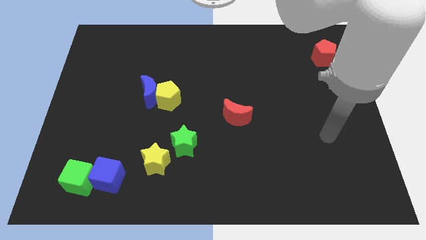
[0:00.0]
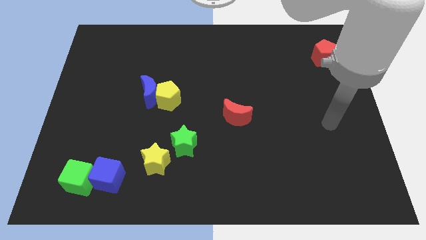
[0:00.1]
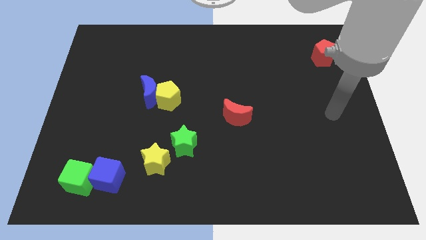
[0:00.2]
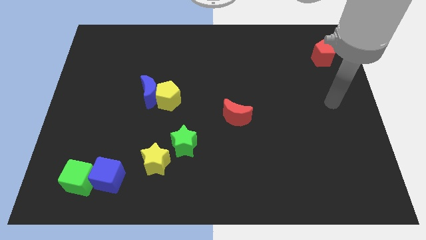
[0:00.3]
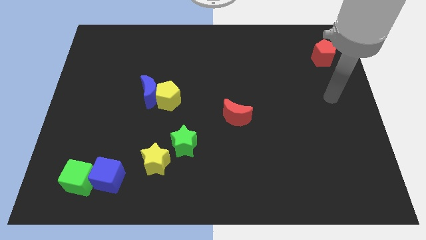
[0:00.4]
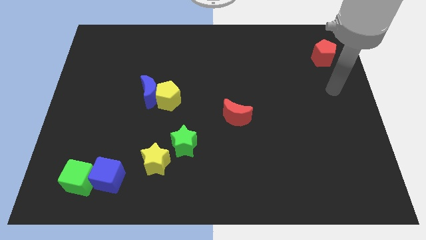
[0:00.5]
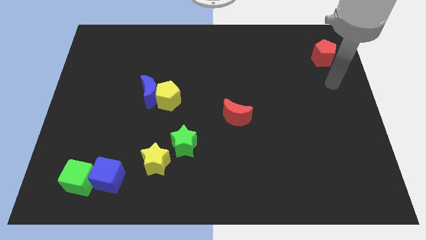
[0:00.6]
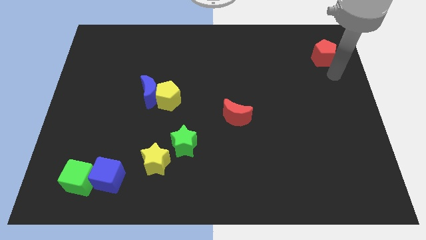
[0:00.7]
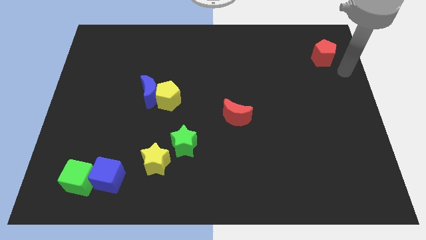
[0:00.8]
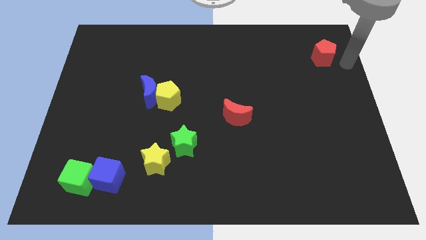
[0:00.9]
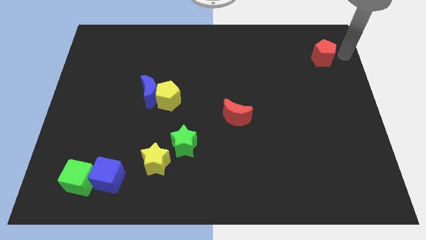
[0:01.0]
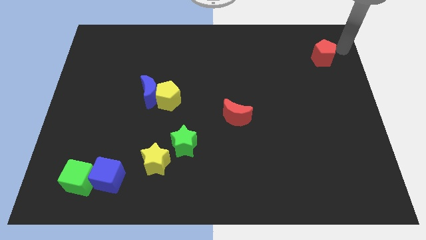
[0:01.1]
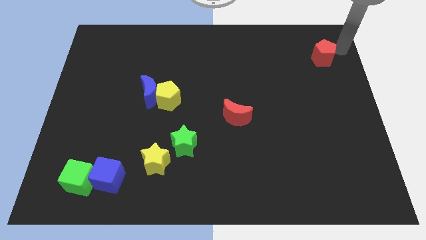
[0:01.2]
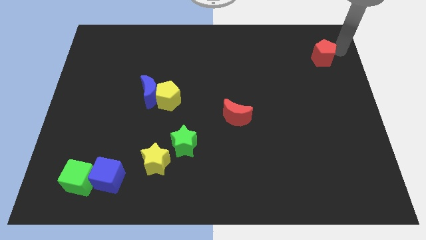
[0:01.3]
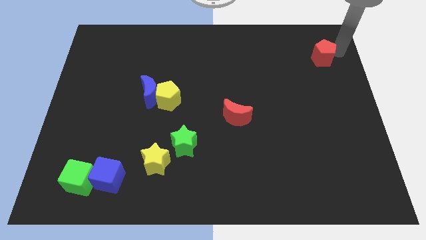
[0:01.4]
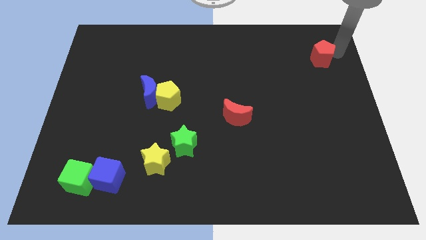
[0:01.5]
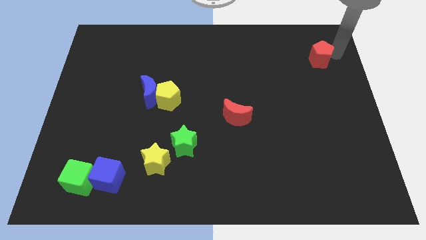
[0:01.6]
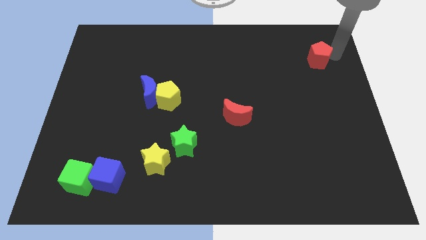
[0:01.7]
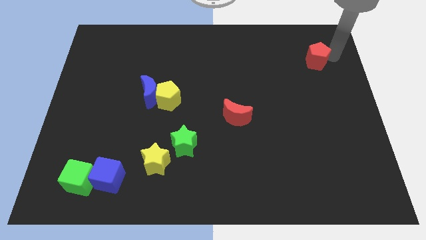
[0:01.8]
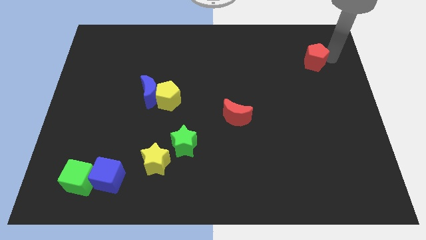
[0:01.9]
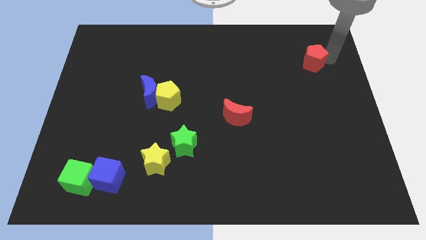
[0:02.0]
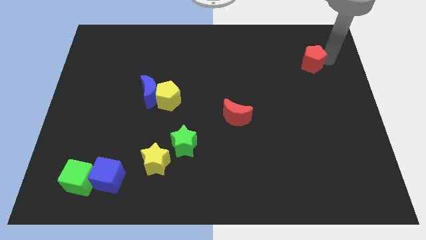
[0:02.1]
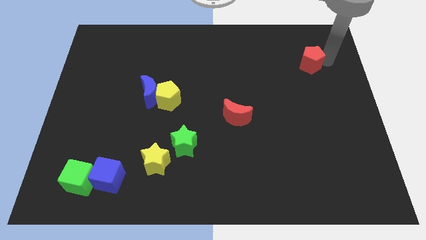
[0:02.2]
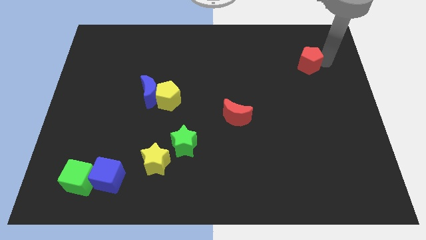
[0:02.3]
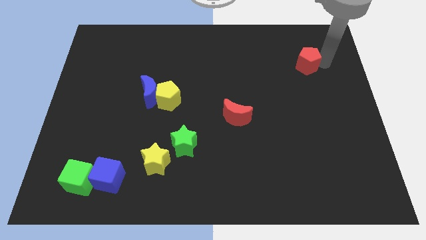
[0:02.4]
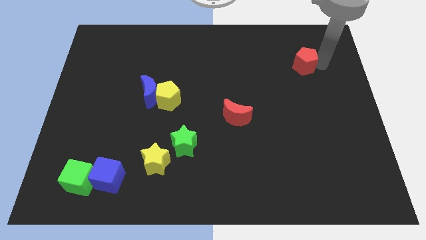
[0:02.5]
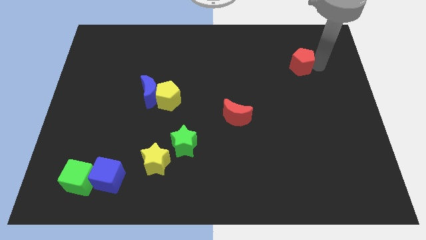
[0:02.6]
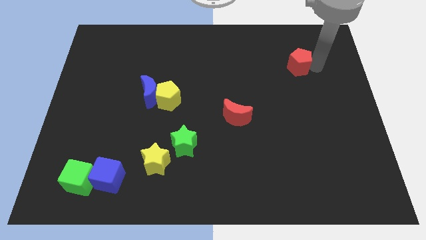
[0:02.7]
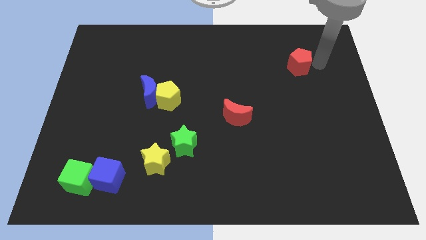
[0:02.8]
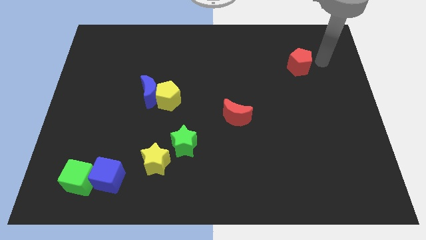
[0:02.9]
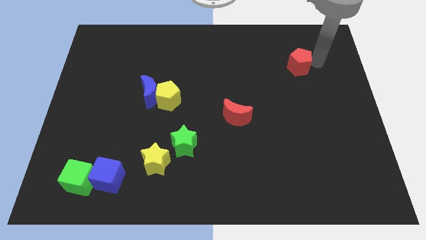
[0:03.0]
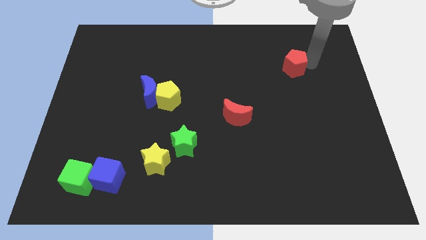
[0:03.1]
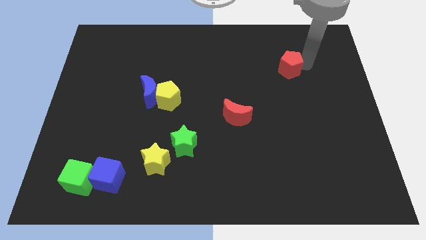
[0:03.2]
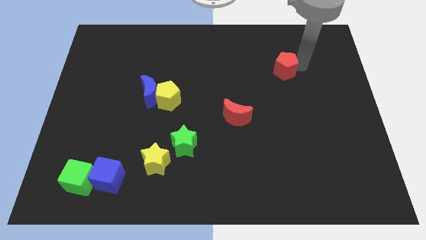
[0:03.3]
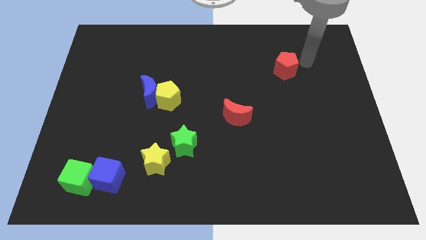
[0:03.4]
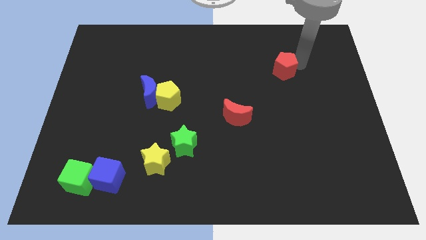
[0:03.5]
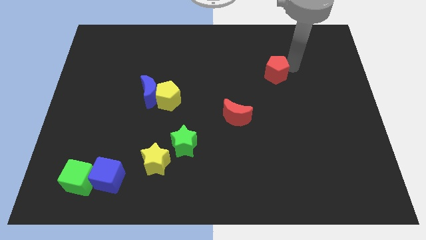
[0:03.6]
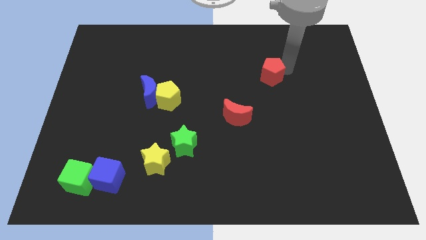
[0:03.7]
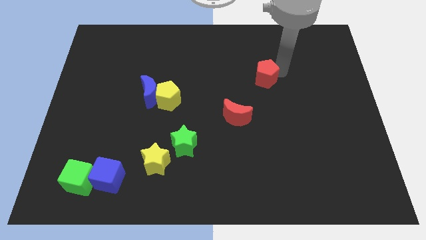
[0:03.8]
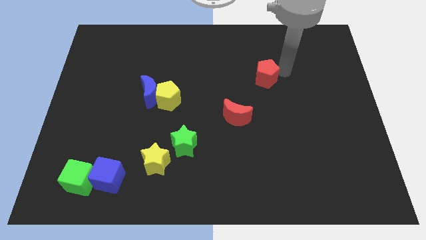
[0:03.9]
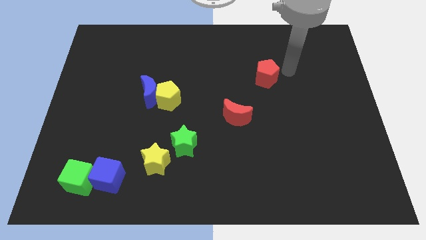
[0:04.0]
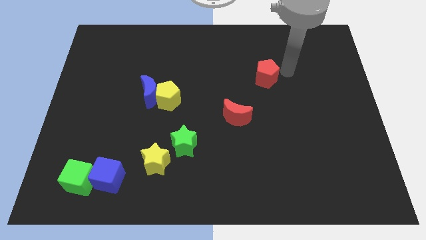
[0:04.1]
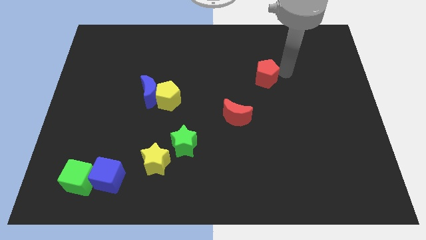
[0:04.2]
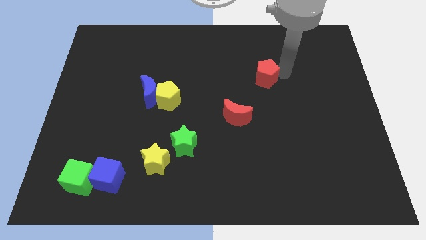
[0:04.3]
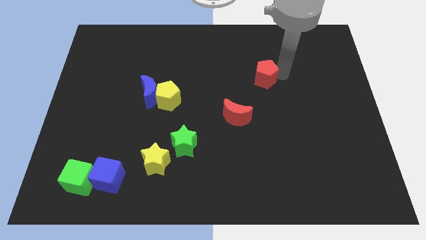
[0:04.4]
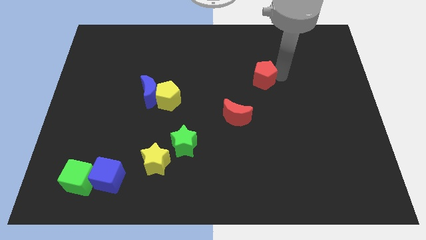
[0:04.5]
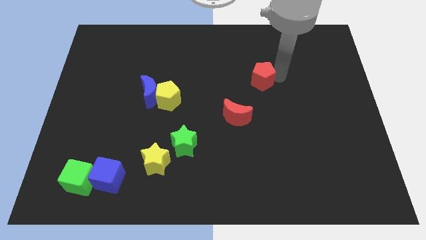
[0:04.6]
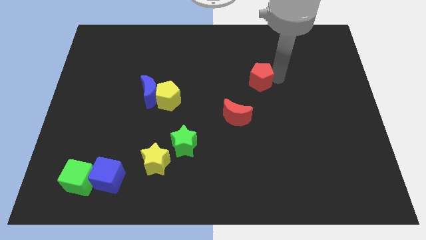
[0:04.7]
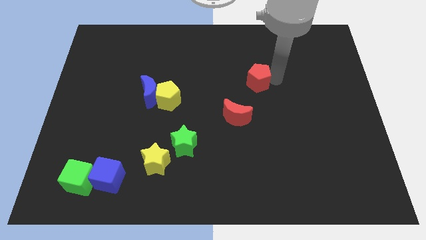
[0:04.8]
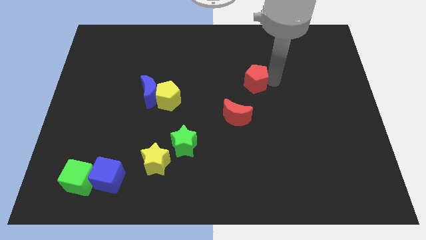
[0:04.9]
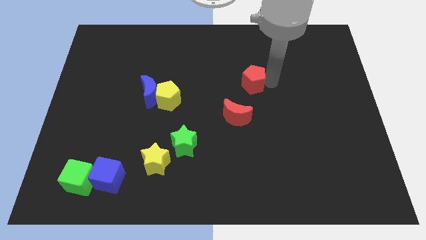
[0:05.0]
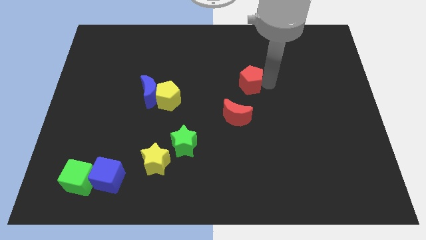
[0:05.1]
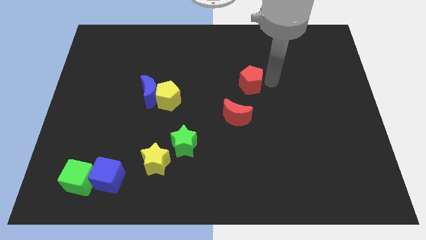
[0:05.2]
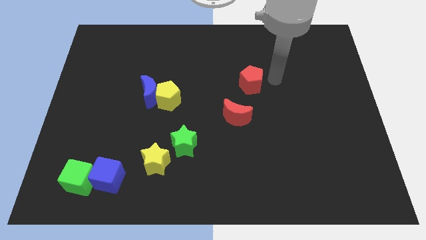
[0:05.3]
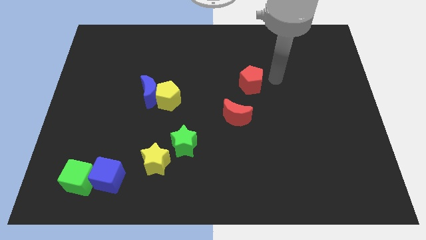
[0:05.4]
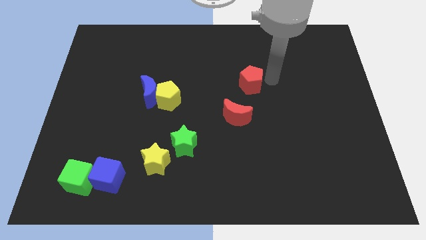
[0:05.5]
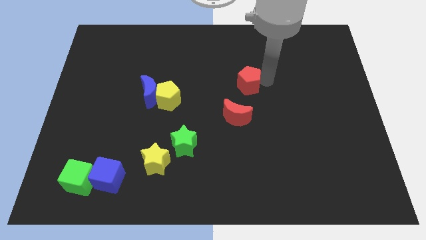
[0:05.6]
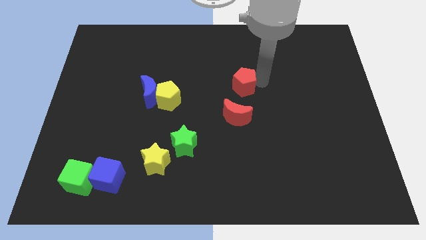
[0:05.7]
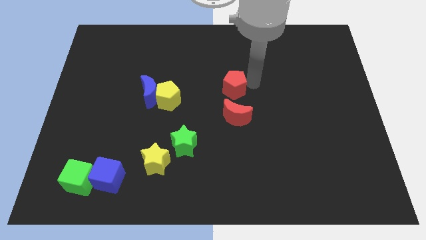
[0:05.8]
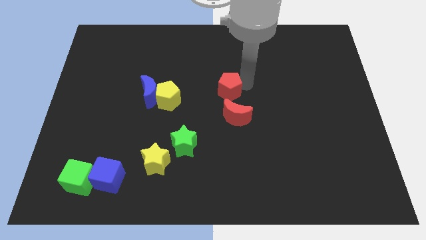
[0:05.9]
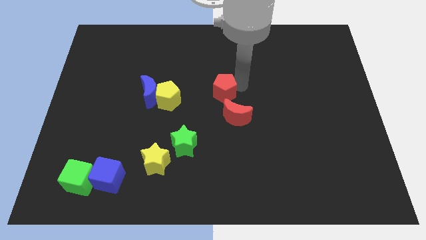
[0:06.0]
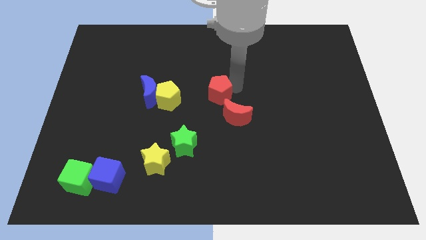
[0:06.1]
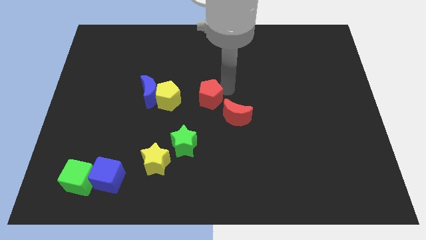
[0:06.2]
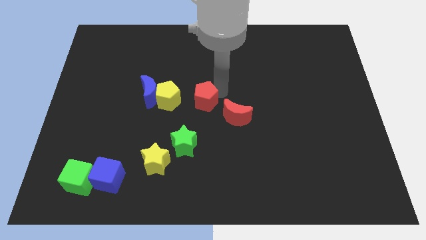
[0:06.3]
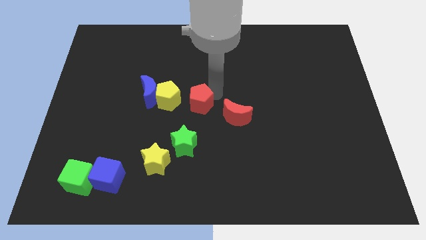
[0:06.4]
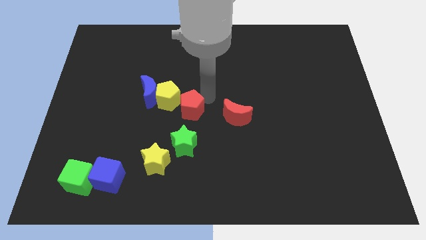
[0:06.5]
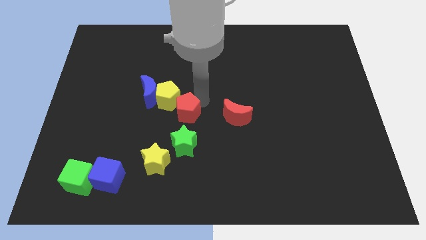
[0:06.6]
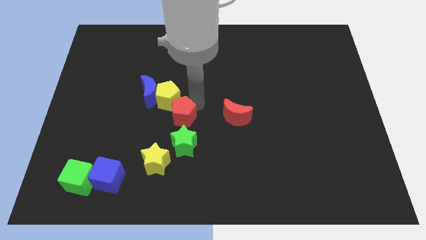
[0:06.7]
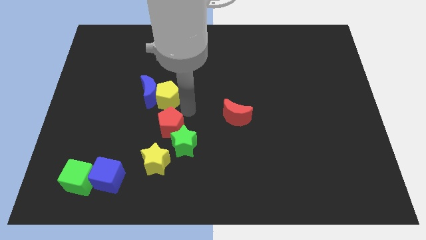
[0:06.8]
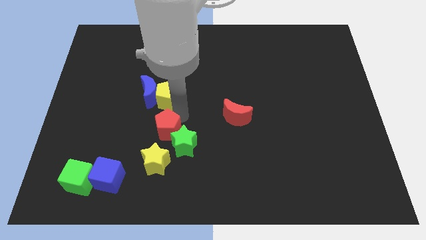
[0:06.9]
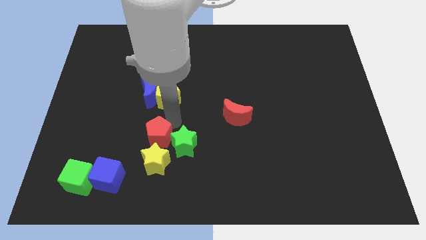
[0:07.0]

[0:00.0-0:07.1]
put the red pentagon to the yellow star

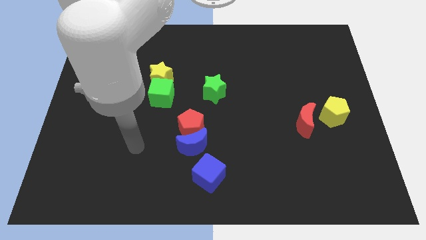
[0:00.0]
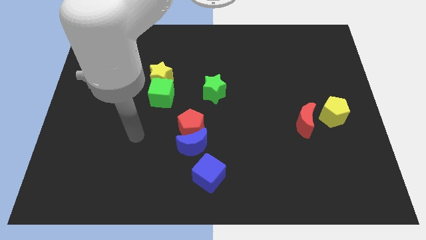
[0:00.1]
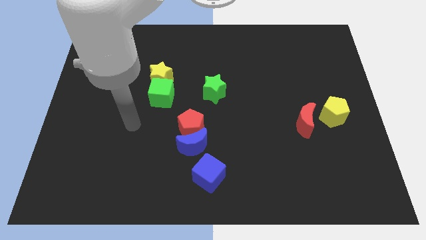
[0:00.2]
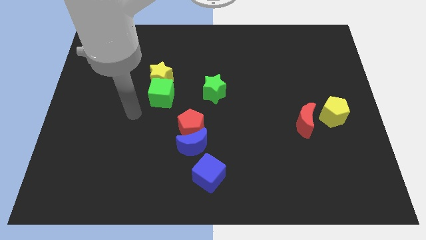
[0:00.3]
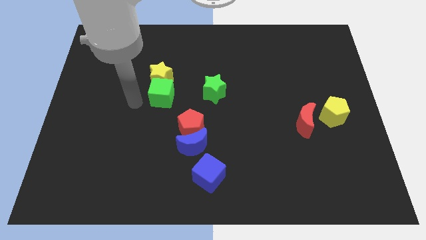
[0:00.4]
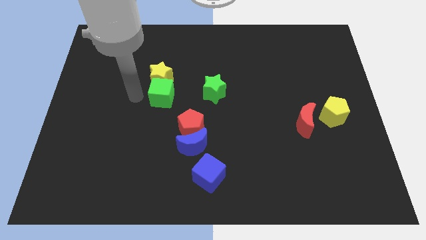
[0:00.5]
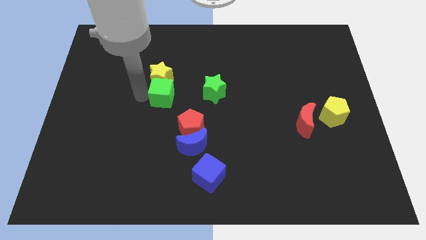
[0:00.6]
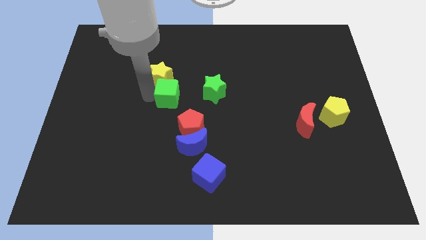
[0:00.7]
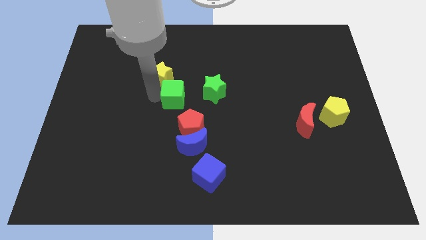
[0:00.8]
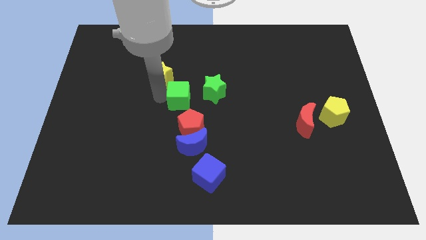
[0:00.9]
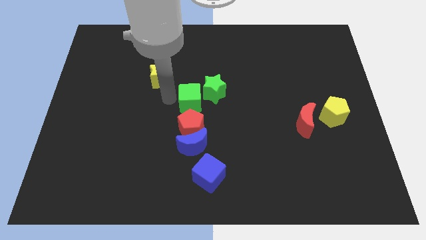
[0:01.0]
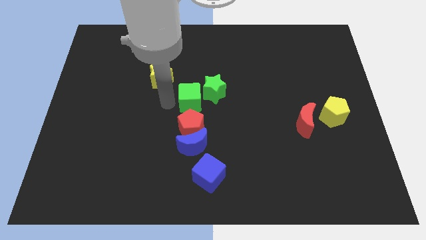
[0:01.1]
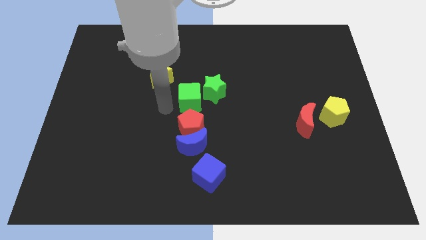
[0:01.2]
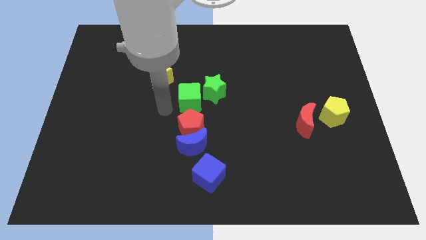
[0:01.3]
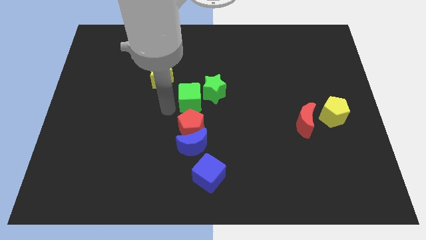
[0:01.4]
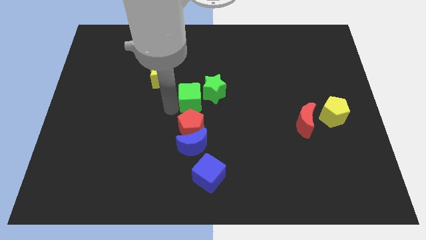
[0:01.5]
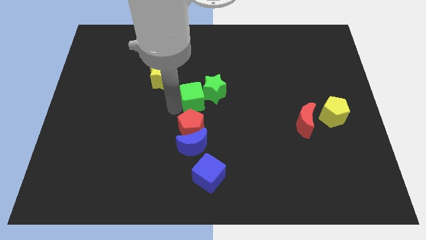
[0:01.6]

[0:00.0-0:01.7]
slide the green cube towards the green star
